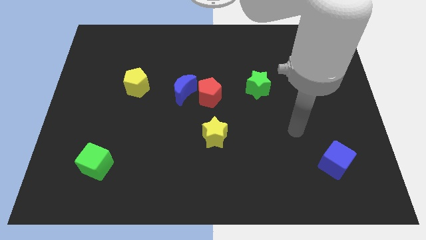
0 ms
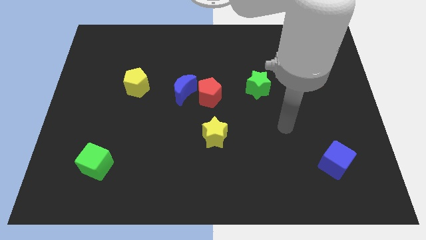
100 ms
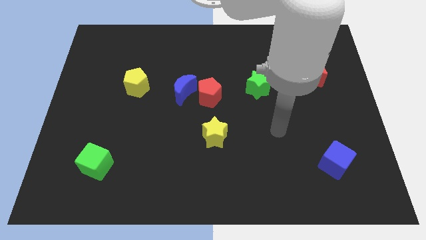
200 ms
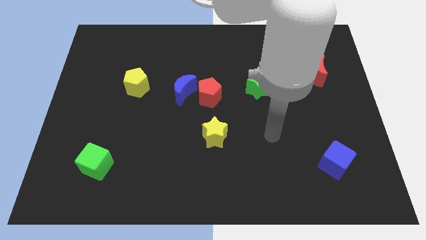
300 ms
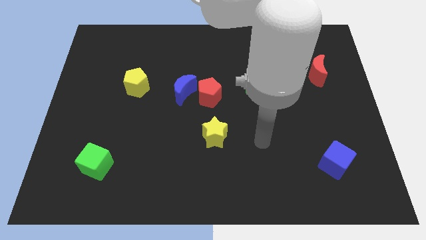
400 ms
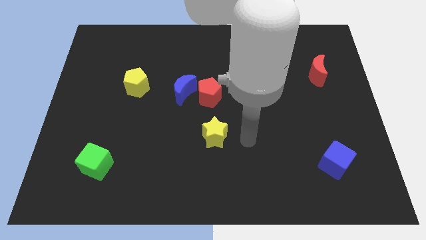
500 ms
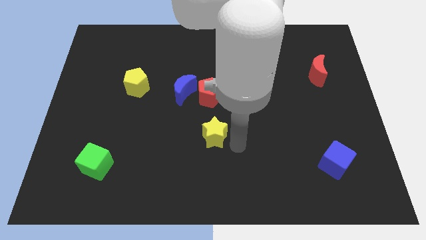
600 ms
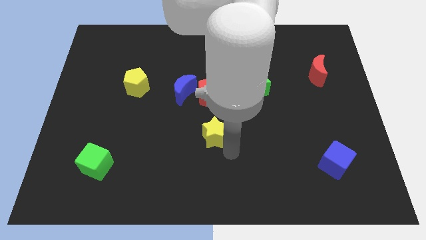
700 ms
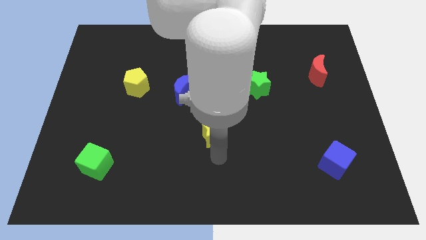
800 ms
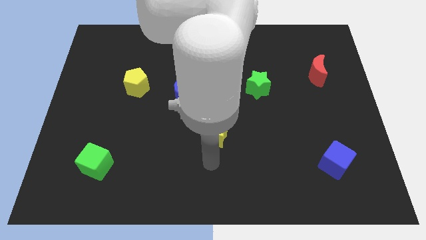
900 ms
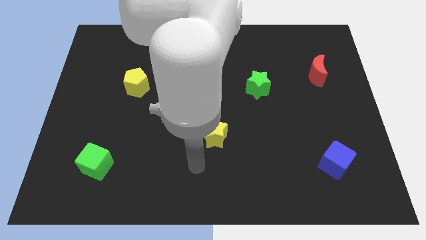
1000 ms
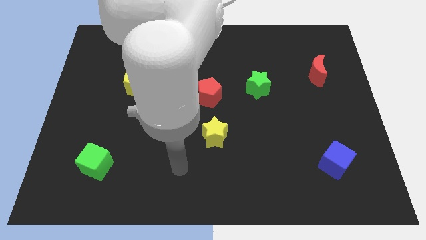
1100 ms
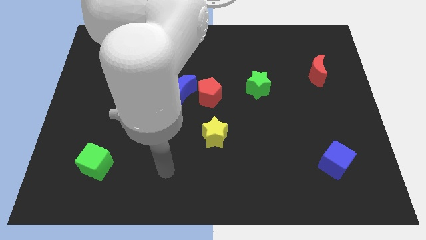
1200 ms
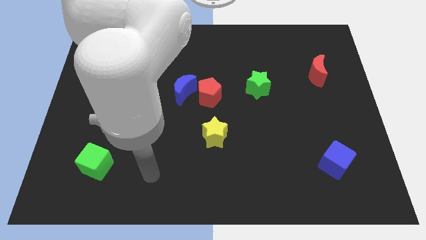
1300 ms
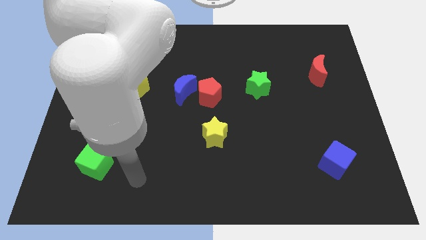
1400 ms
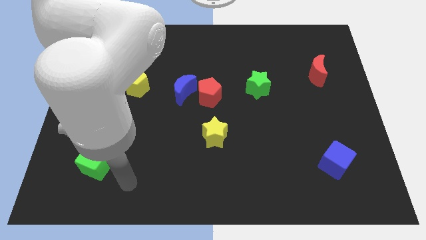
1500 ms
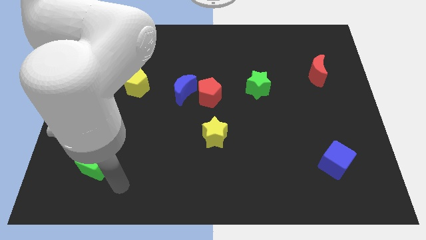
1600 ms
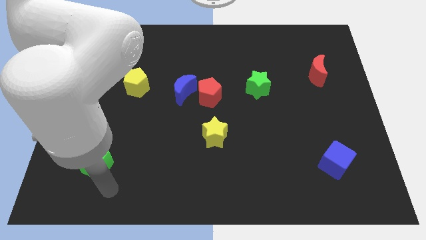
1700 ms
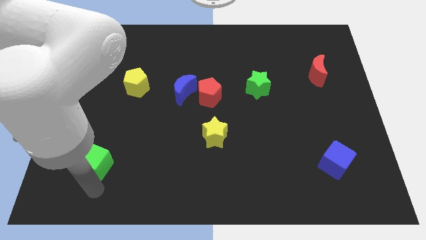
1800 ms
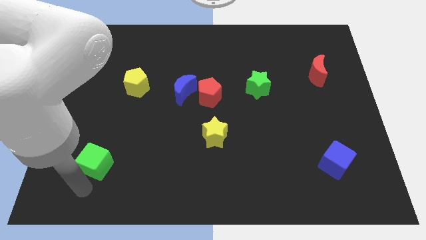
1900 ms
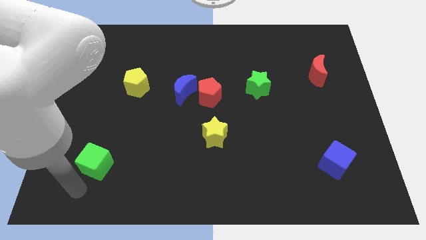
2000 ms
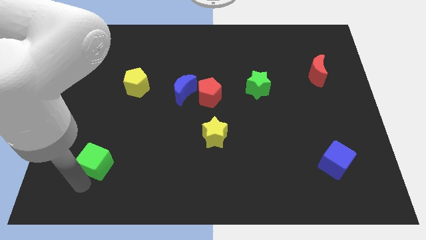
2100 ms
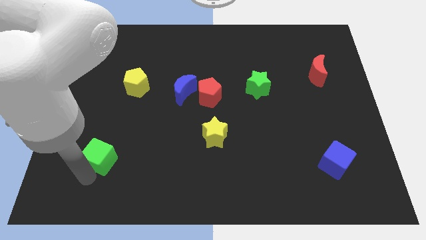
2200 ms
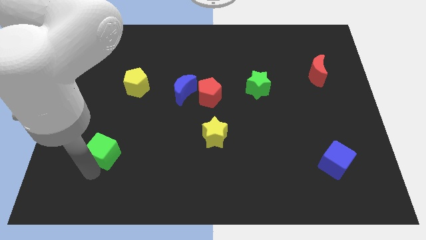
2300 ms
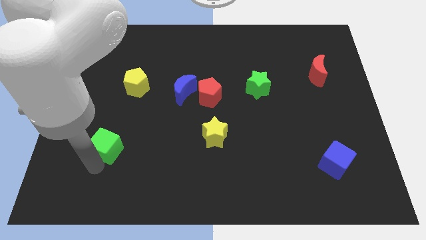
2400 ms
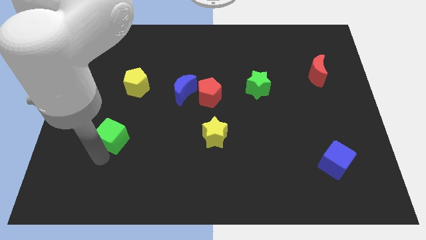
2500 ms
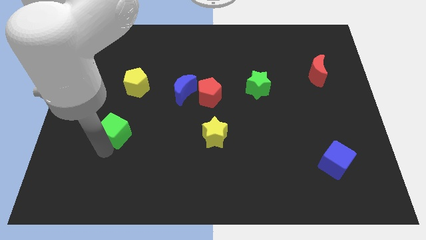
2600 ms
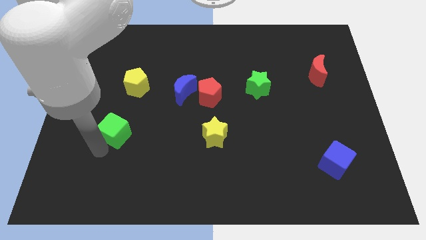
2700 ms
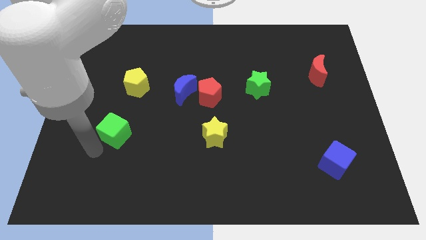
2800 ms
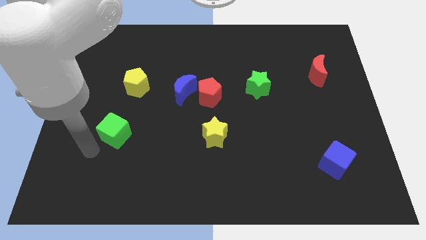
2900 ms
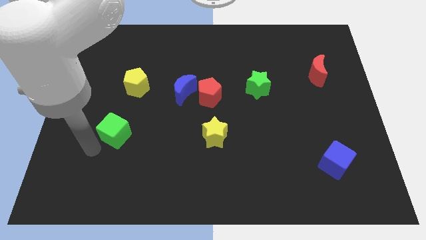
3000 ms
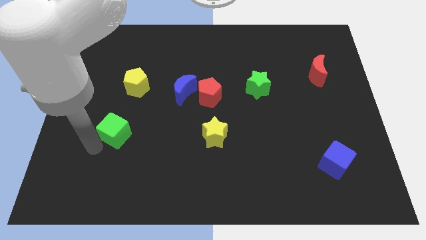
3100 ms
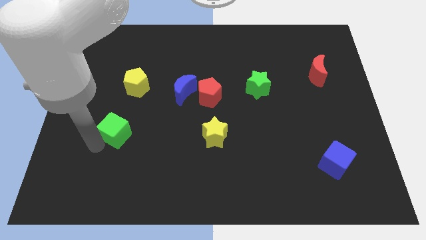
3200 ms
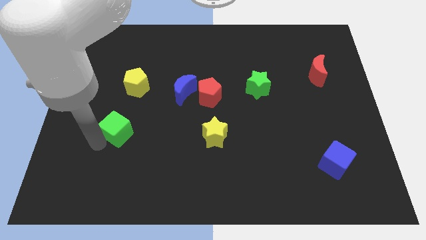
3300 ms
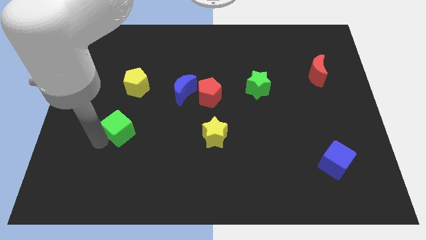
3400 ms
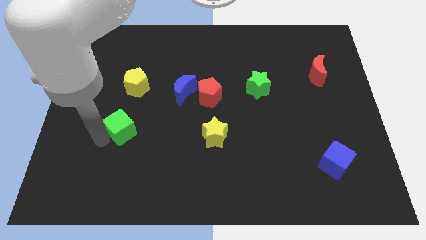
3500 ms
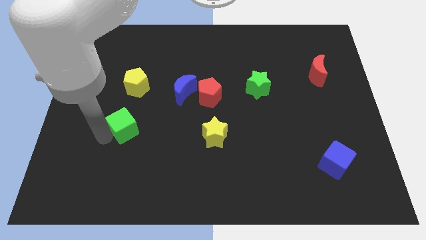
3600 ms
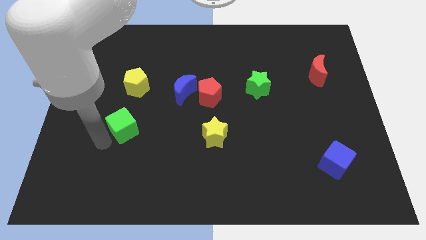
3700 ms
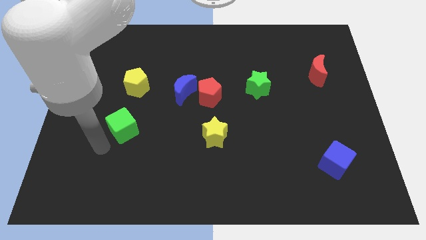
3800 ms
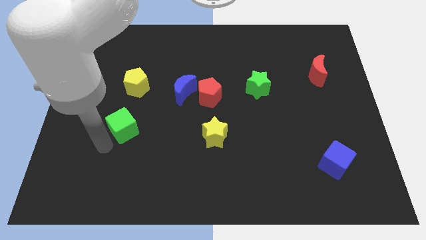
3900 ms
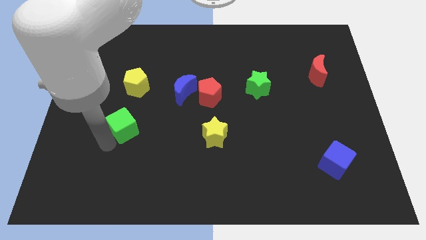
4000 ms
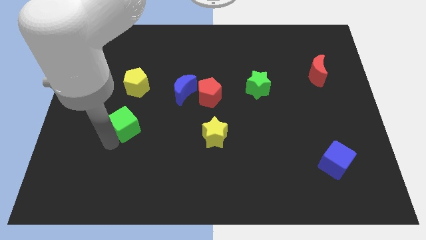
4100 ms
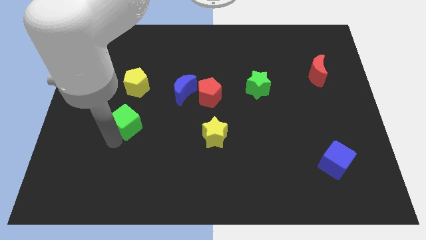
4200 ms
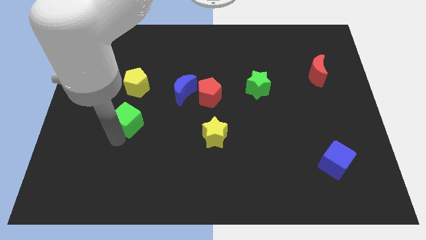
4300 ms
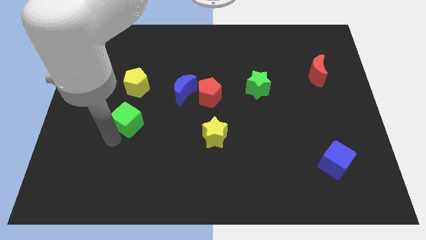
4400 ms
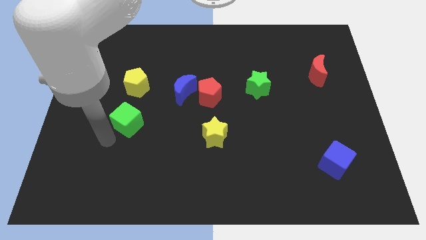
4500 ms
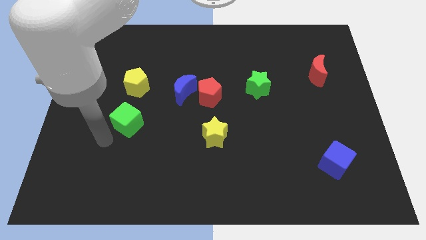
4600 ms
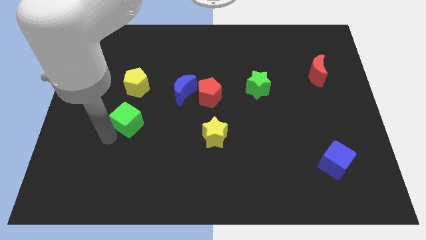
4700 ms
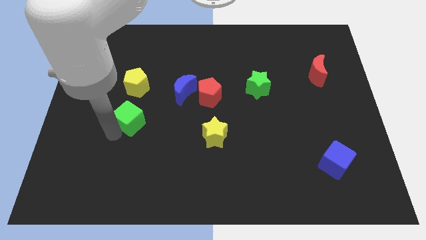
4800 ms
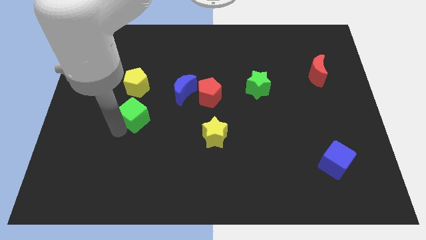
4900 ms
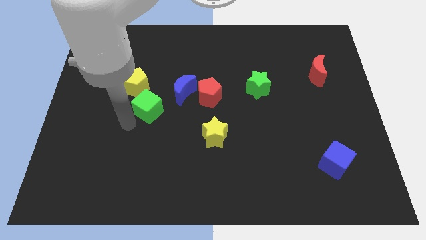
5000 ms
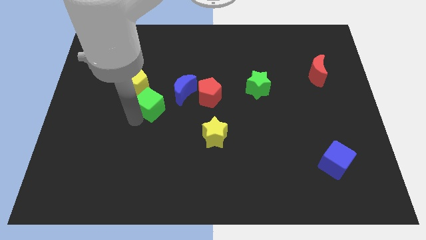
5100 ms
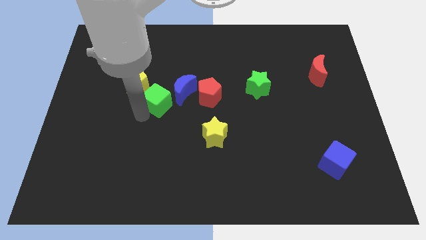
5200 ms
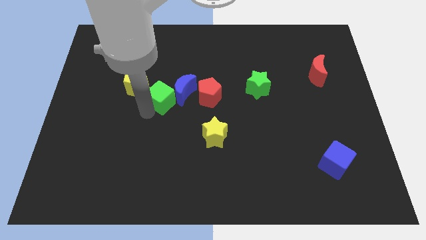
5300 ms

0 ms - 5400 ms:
push the green cube diagonally upwards and to the right

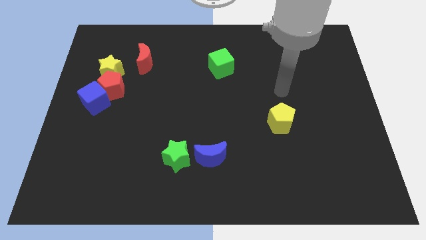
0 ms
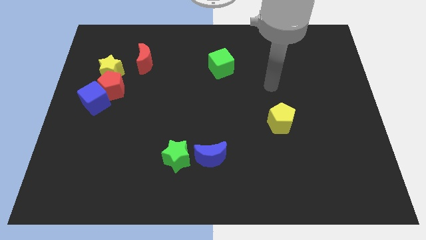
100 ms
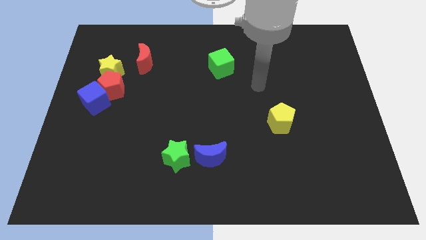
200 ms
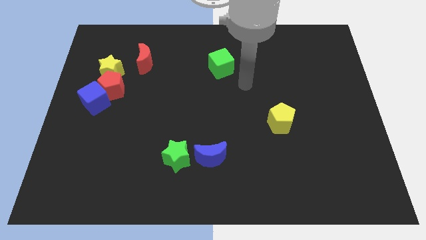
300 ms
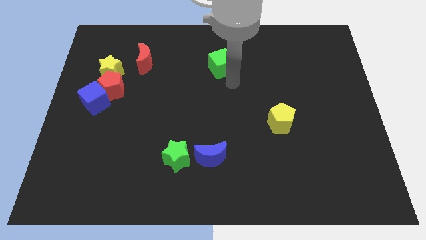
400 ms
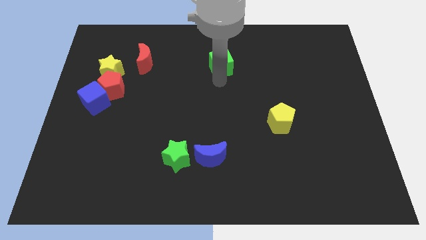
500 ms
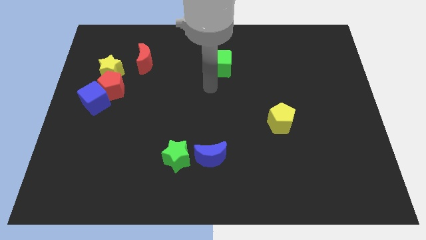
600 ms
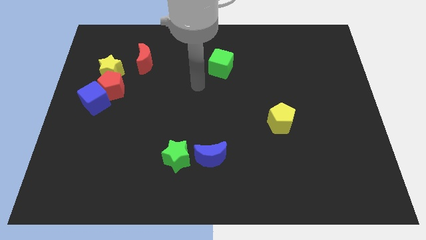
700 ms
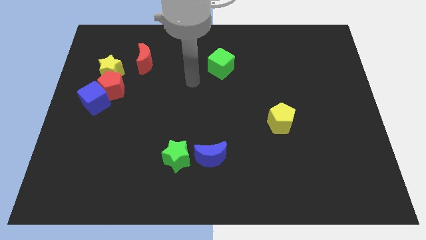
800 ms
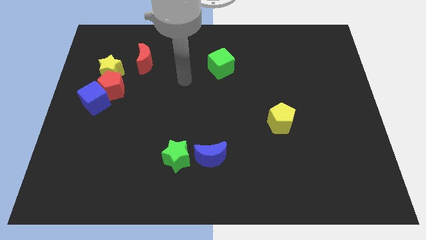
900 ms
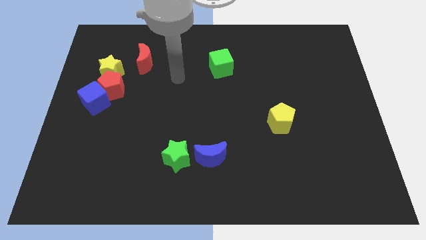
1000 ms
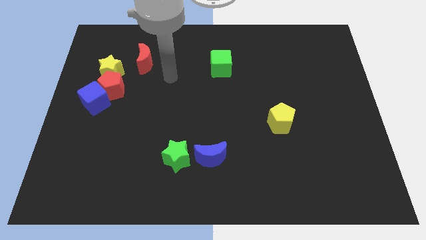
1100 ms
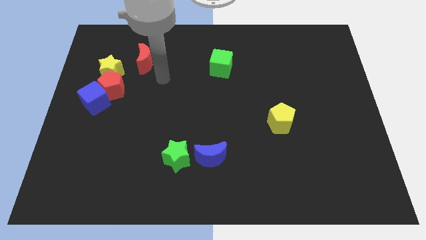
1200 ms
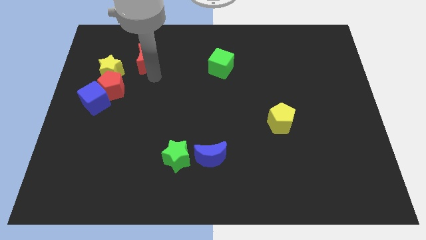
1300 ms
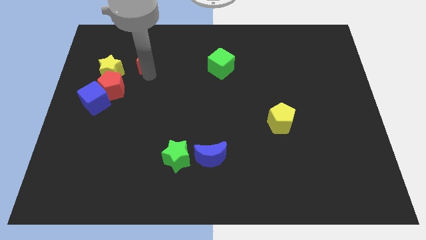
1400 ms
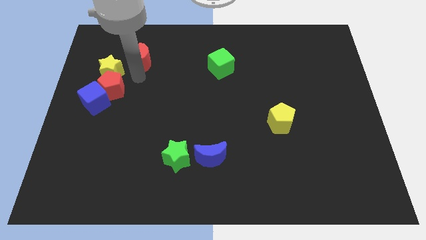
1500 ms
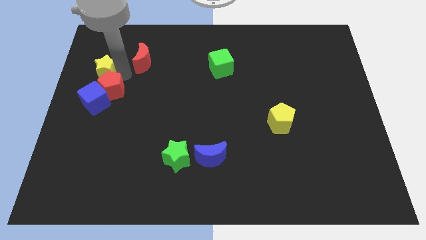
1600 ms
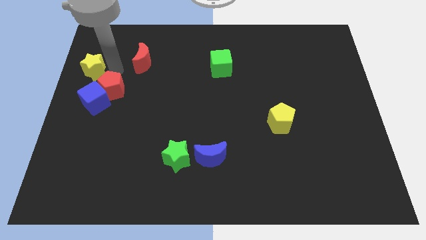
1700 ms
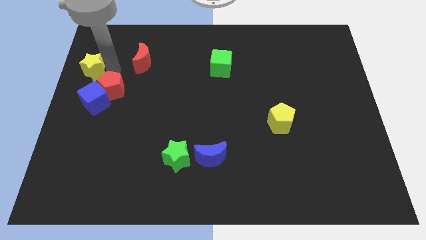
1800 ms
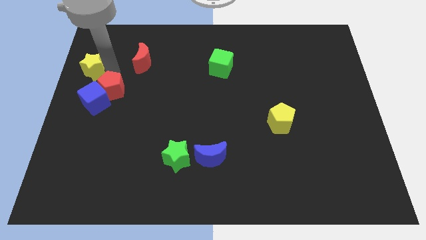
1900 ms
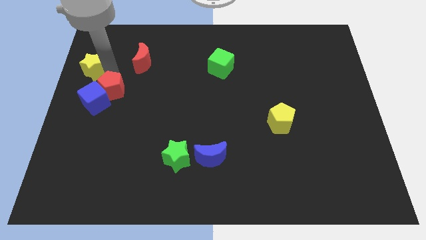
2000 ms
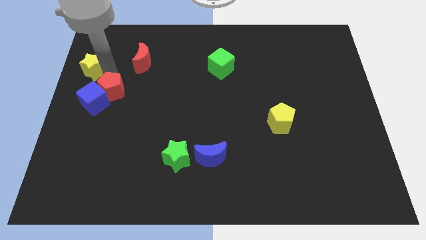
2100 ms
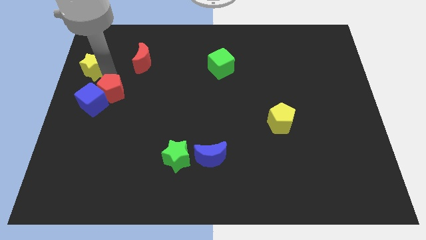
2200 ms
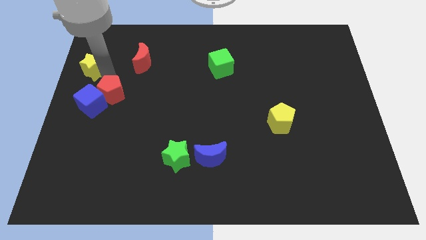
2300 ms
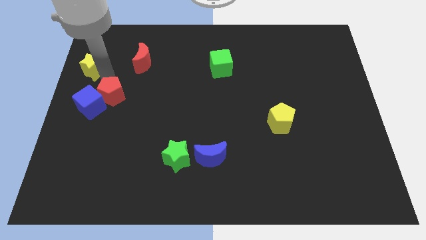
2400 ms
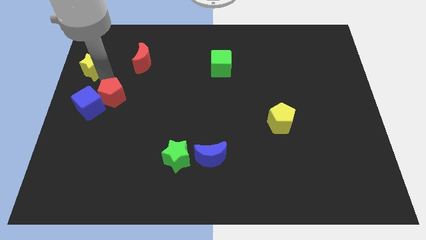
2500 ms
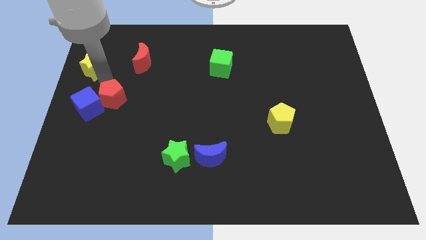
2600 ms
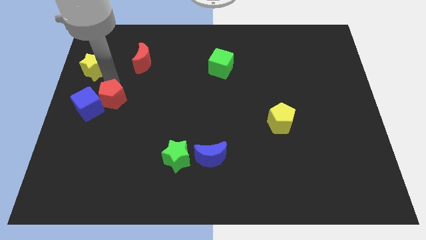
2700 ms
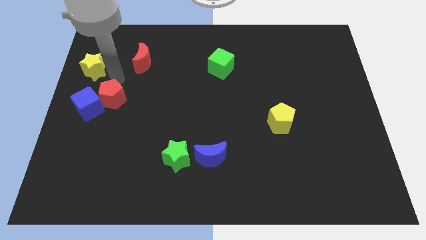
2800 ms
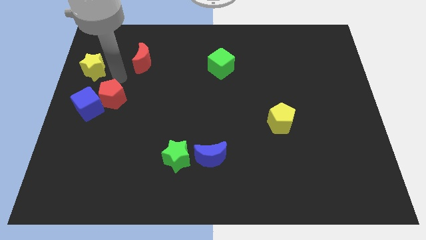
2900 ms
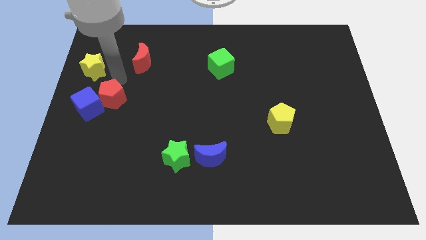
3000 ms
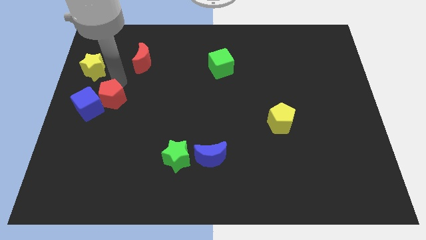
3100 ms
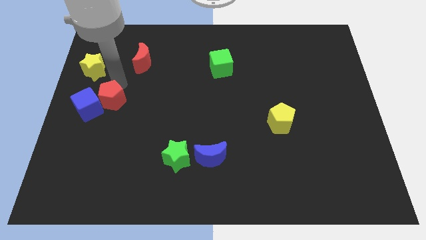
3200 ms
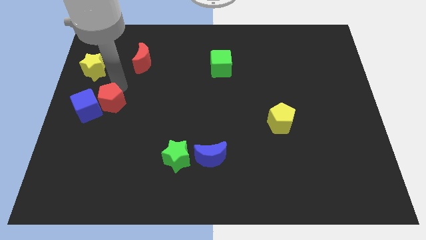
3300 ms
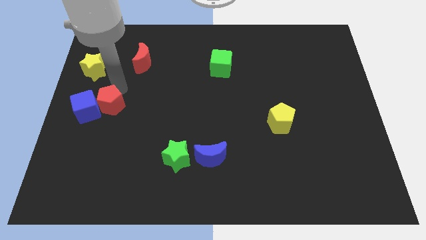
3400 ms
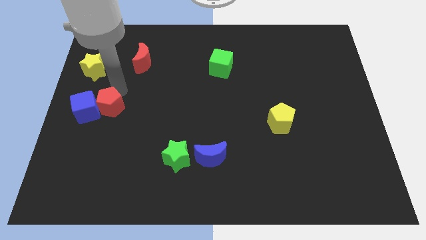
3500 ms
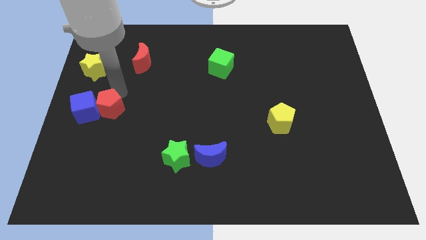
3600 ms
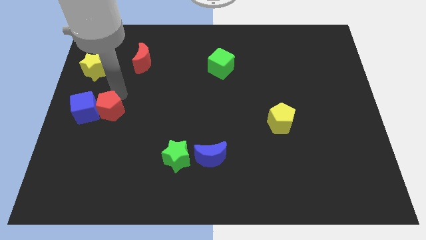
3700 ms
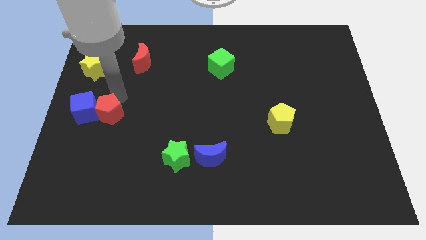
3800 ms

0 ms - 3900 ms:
slide the red pentagon down a little bit
